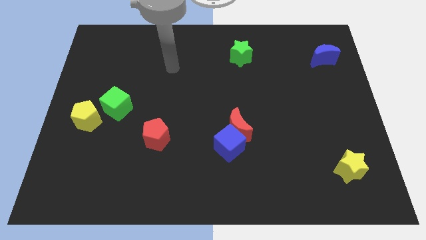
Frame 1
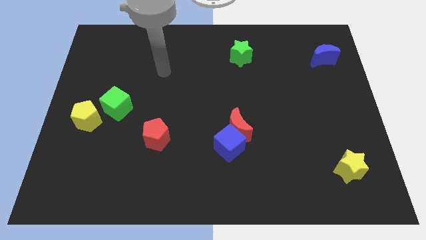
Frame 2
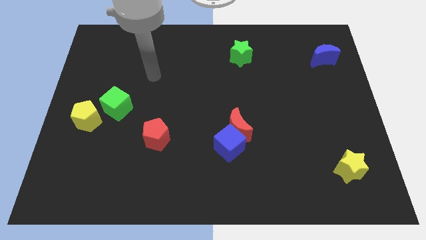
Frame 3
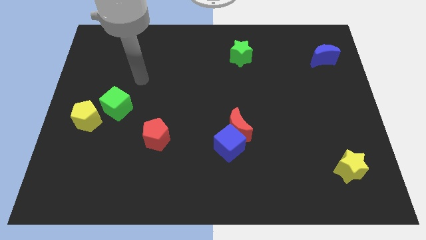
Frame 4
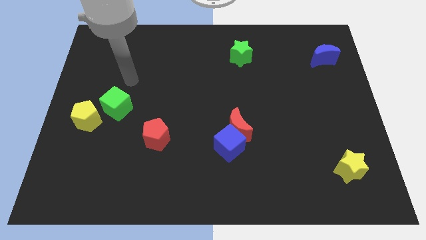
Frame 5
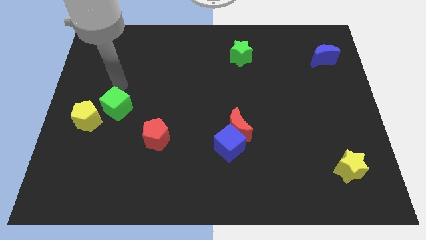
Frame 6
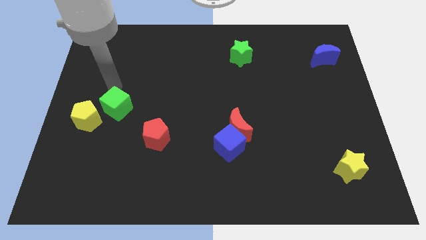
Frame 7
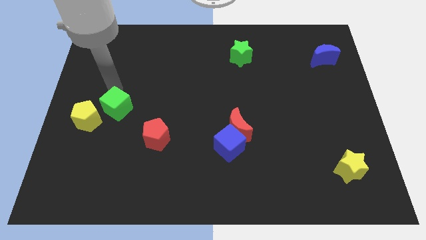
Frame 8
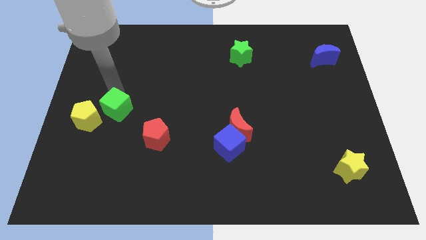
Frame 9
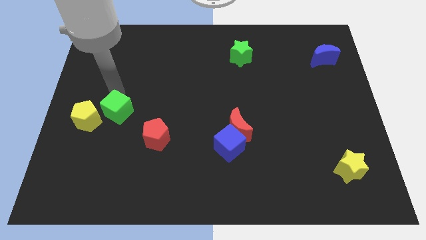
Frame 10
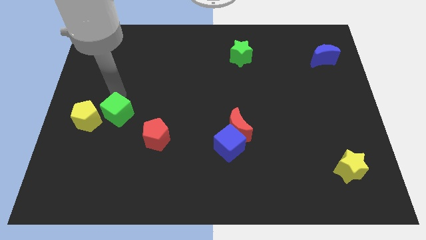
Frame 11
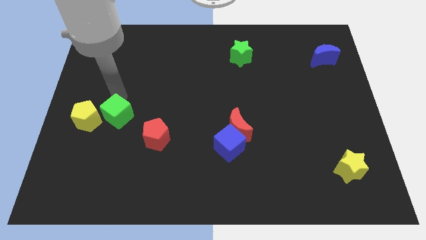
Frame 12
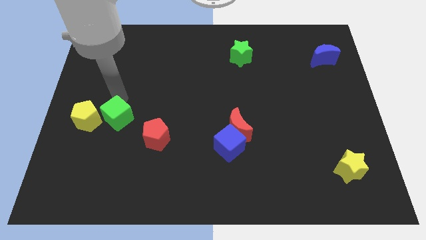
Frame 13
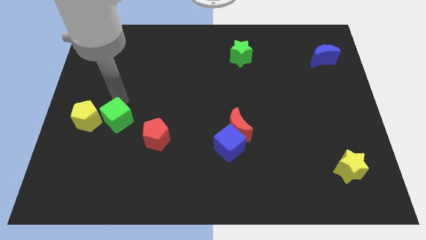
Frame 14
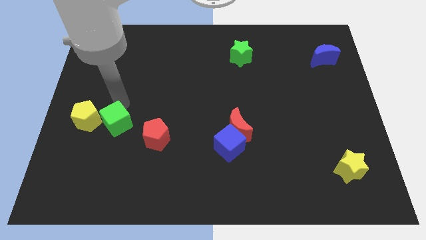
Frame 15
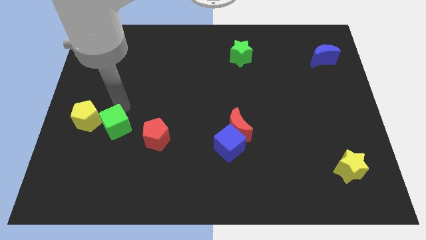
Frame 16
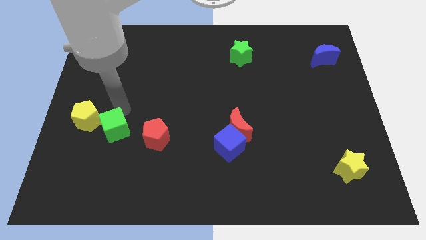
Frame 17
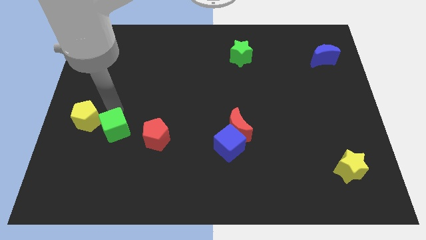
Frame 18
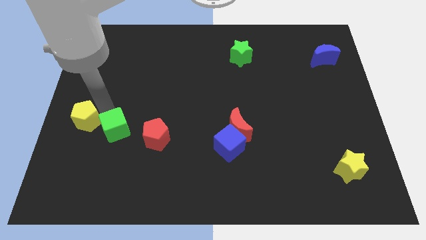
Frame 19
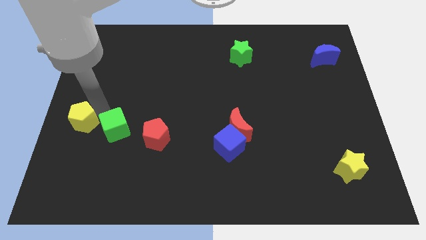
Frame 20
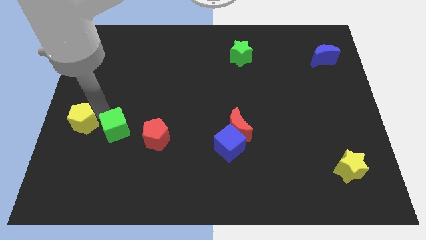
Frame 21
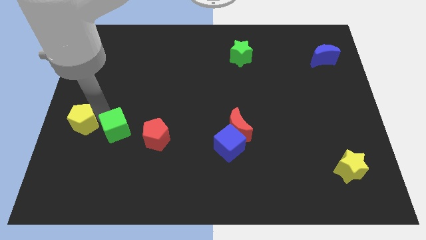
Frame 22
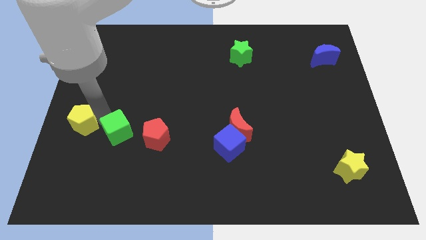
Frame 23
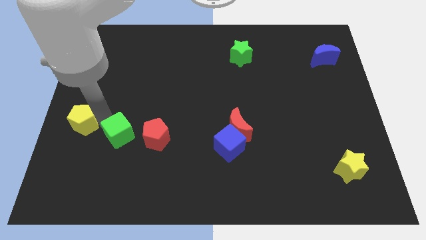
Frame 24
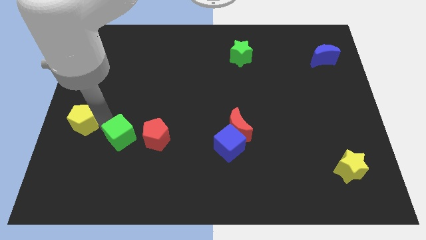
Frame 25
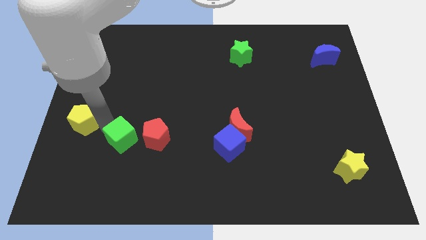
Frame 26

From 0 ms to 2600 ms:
slide the green cube somewhat down and right

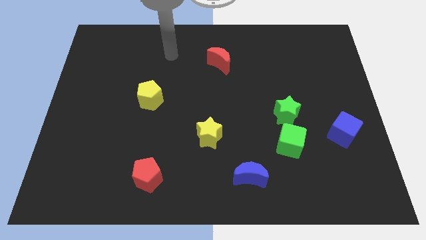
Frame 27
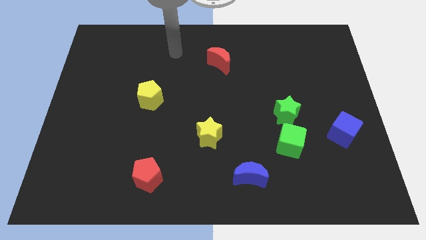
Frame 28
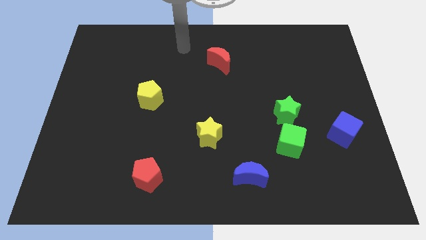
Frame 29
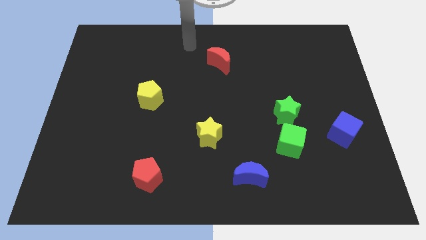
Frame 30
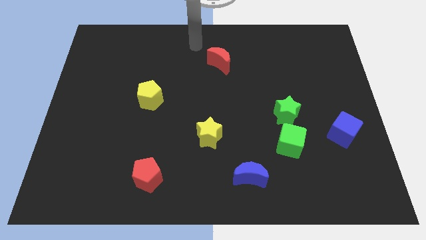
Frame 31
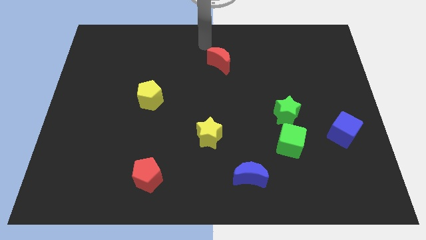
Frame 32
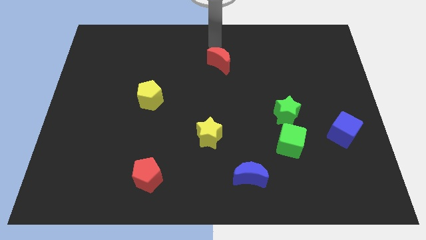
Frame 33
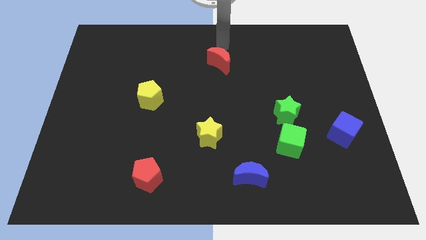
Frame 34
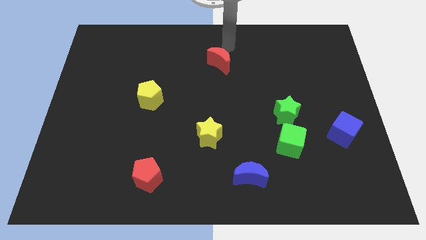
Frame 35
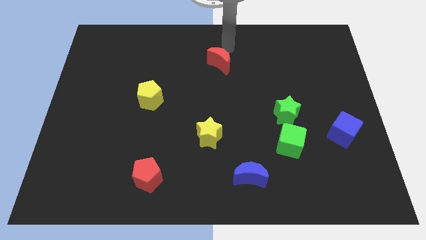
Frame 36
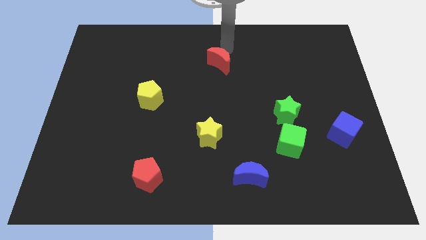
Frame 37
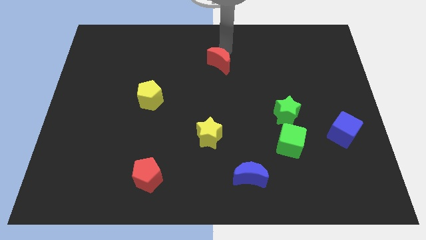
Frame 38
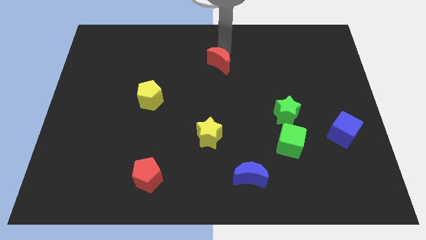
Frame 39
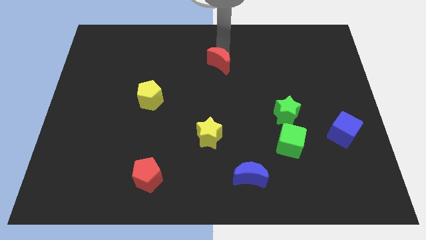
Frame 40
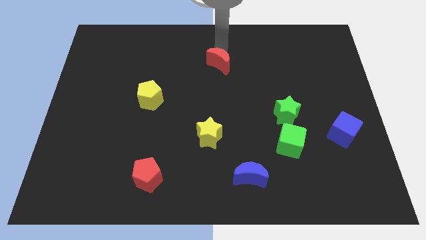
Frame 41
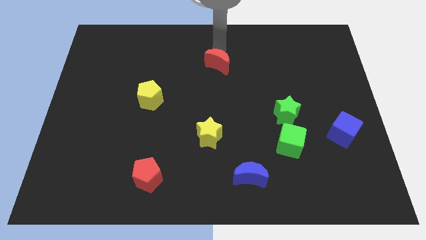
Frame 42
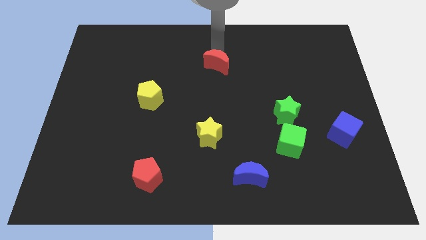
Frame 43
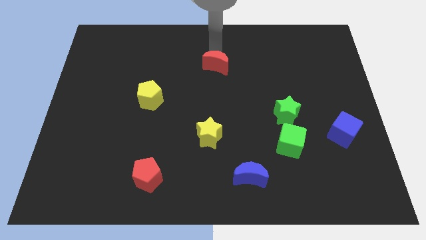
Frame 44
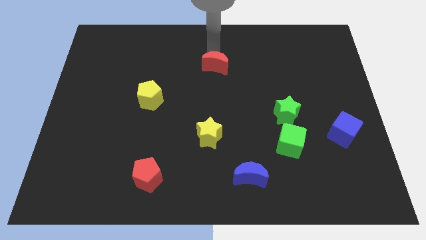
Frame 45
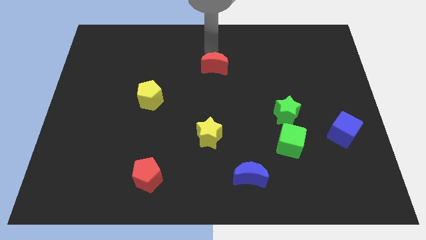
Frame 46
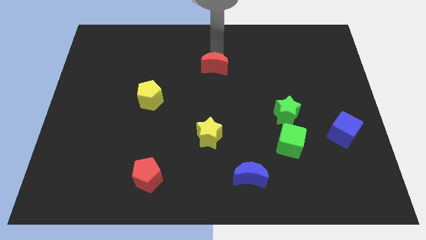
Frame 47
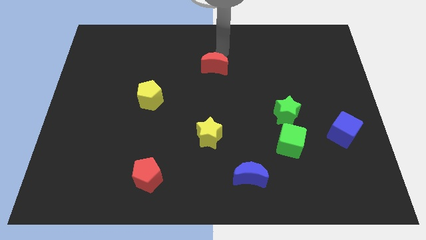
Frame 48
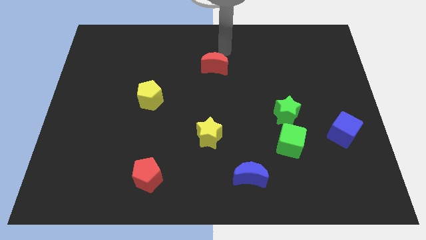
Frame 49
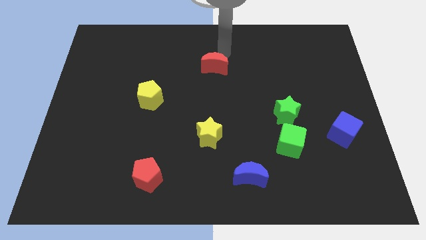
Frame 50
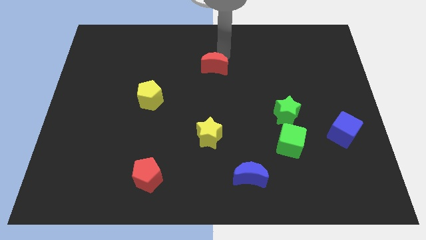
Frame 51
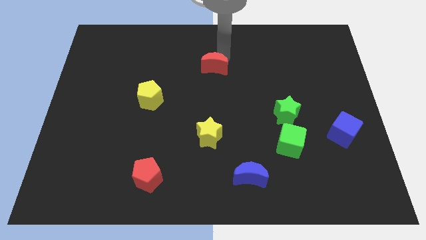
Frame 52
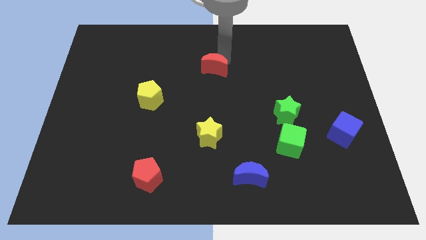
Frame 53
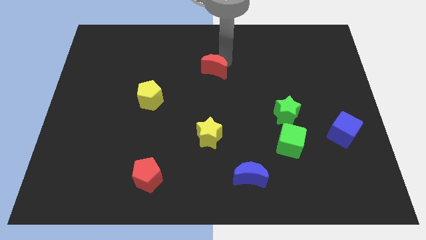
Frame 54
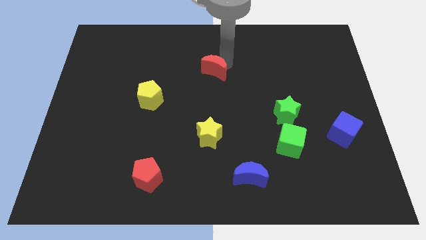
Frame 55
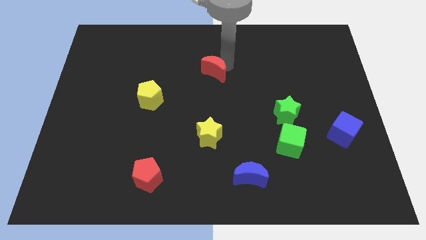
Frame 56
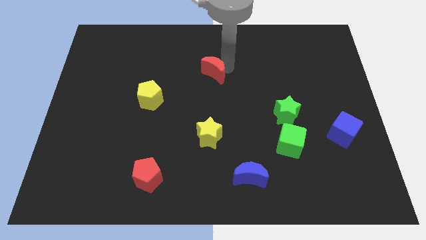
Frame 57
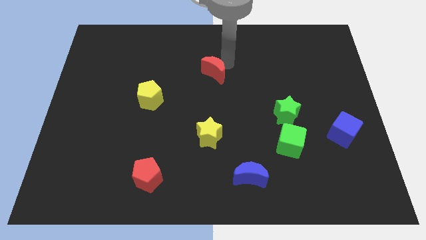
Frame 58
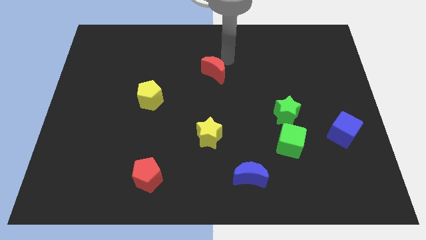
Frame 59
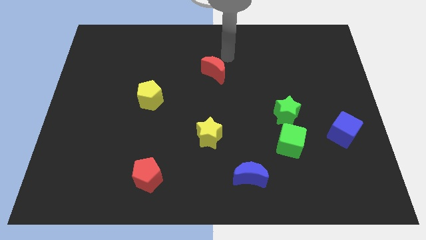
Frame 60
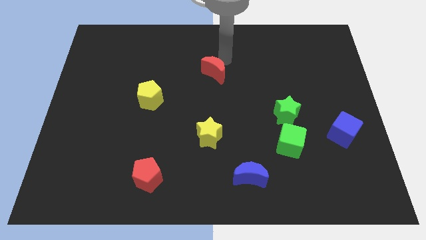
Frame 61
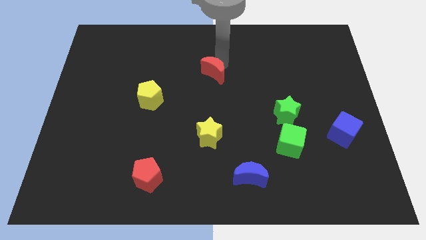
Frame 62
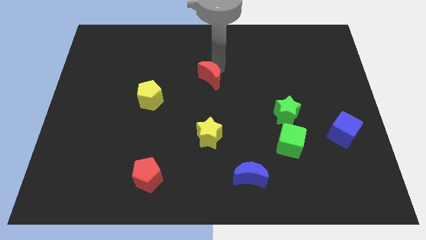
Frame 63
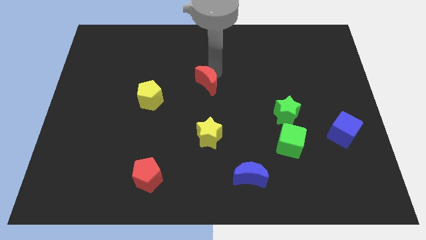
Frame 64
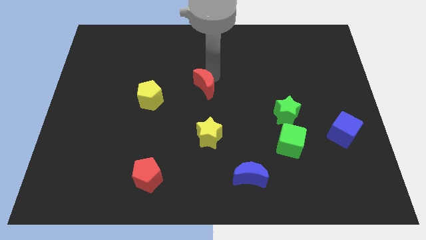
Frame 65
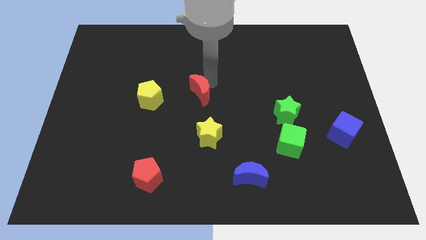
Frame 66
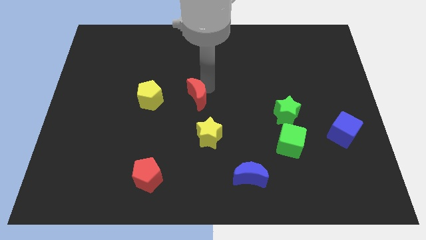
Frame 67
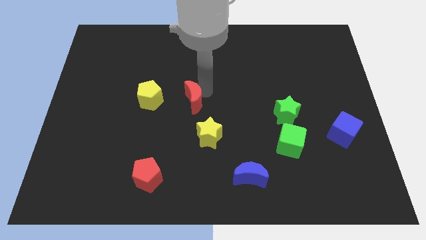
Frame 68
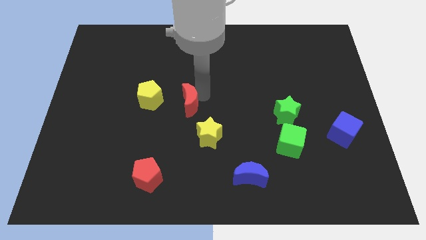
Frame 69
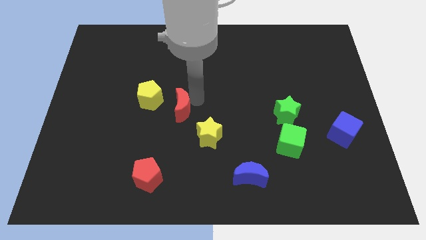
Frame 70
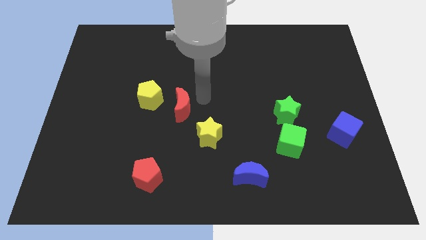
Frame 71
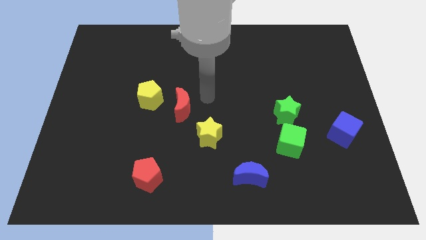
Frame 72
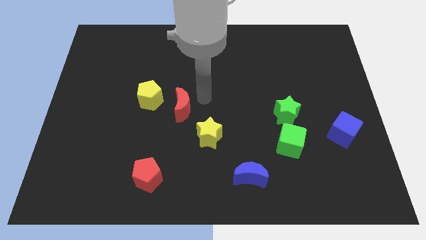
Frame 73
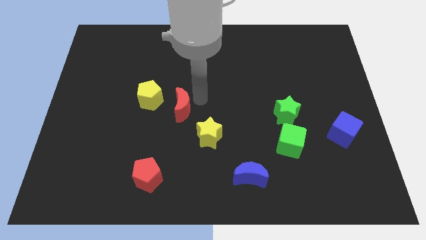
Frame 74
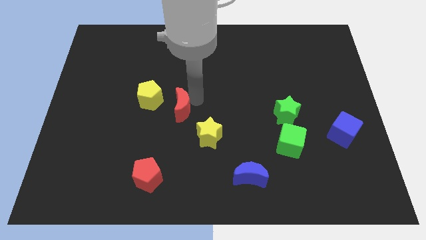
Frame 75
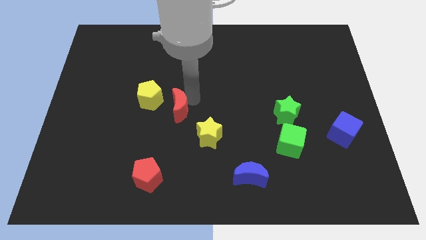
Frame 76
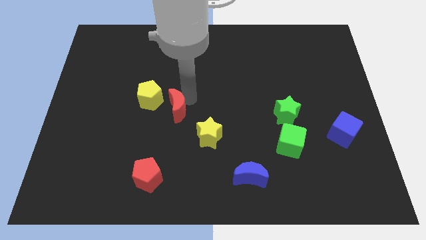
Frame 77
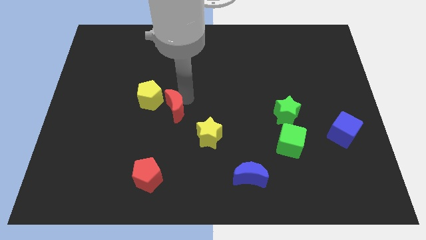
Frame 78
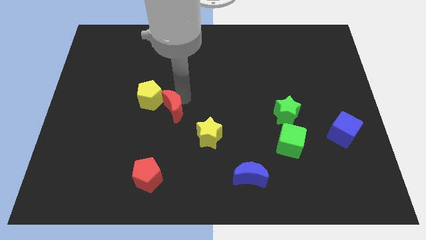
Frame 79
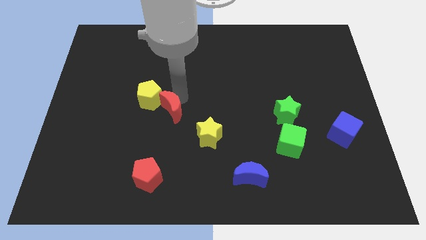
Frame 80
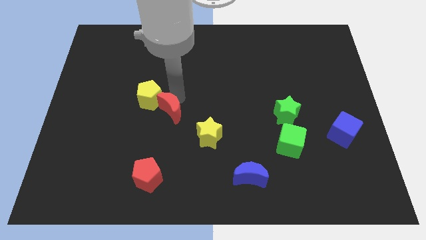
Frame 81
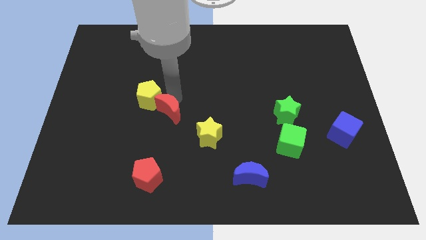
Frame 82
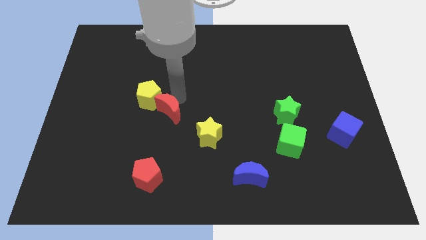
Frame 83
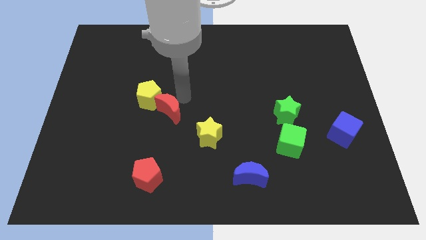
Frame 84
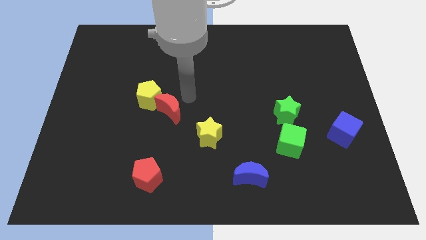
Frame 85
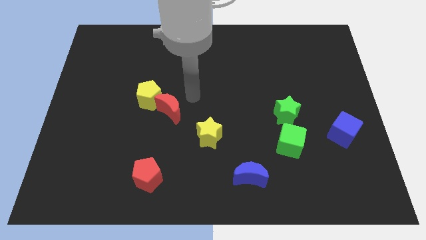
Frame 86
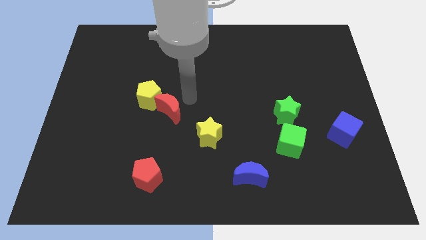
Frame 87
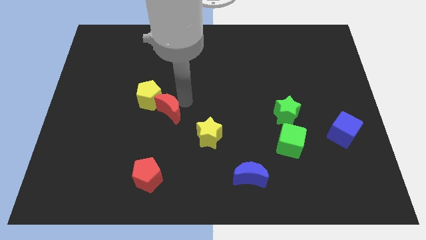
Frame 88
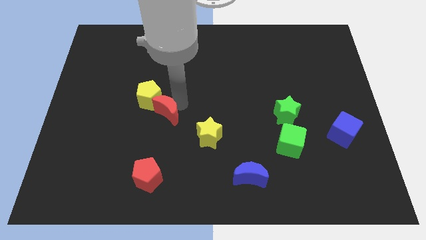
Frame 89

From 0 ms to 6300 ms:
push the red moon diagonally down and left
